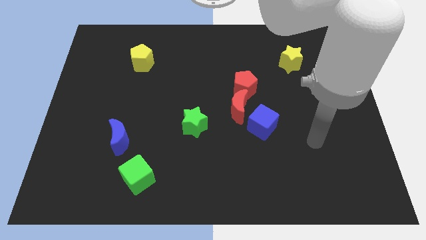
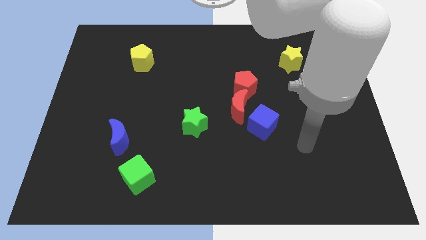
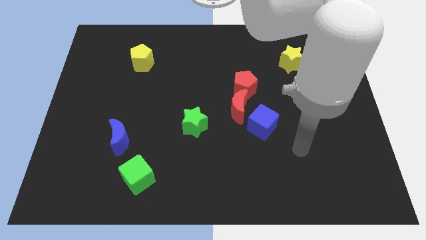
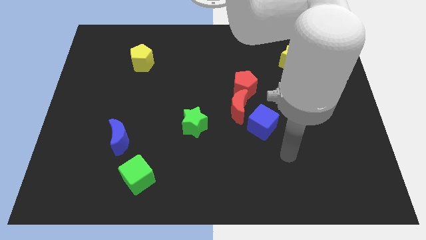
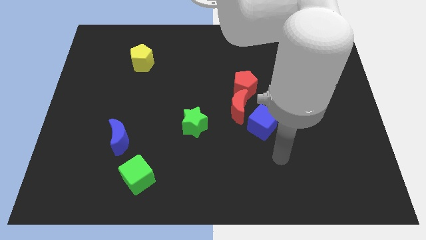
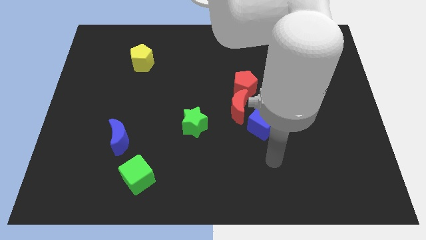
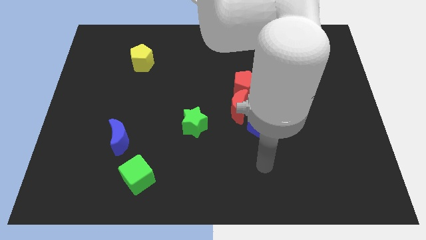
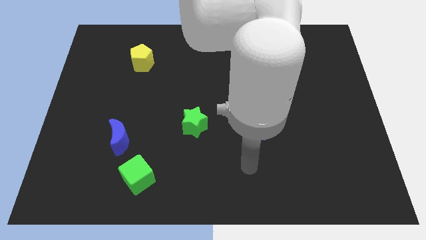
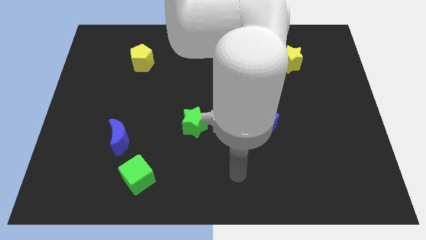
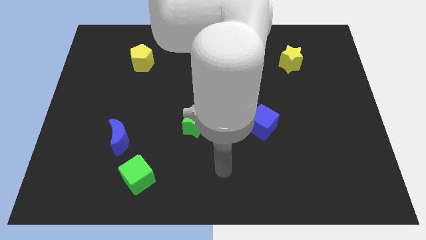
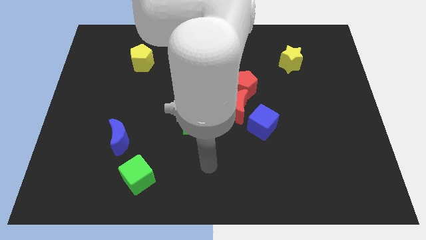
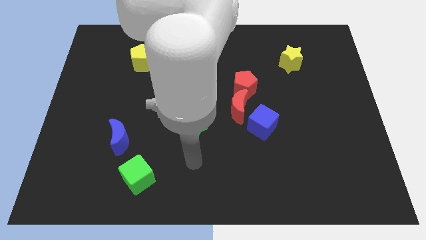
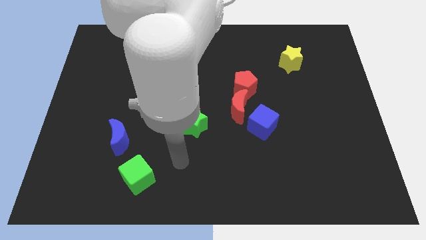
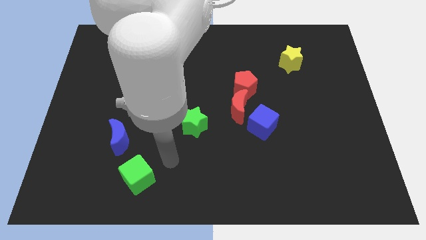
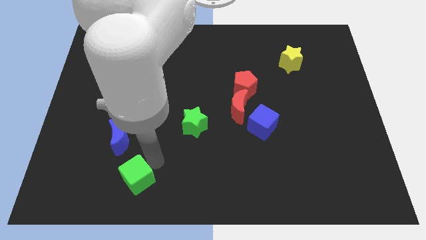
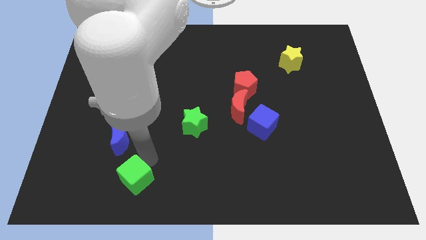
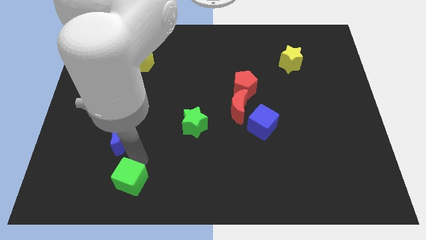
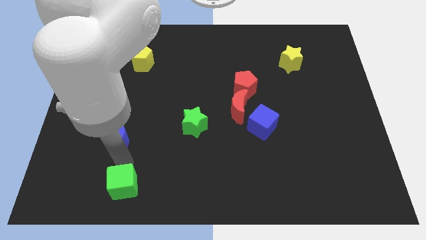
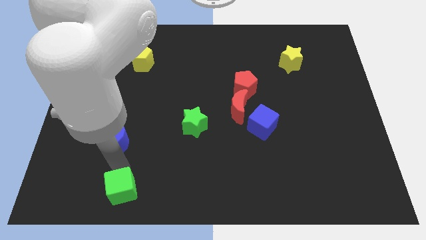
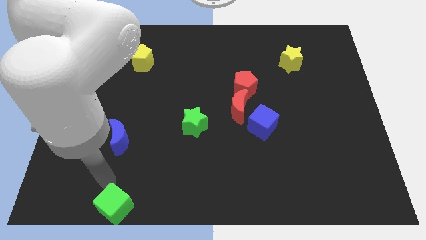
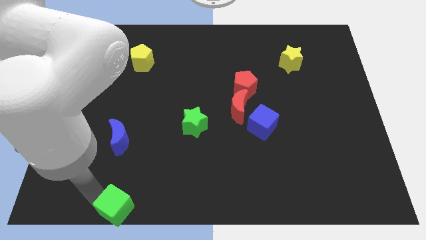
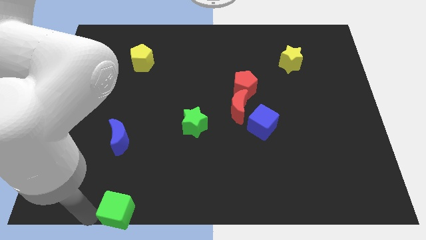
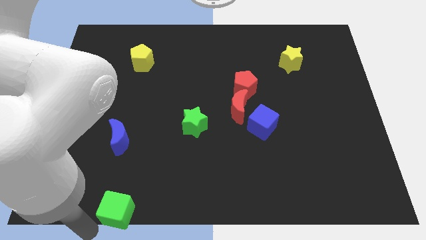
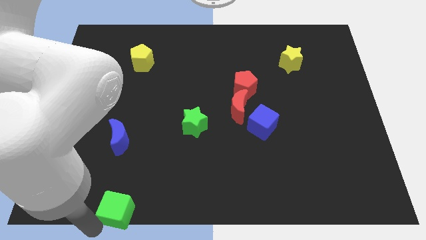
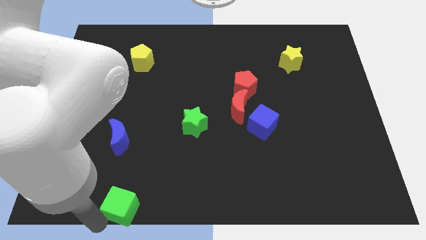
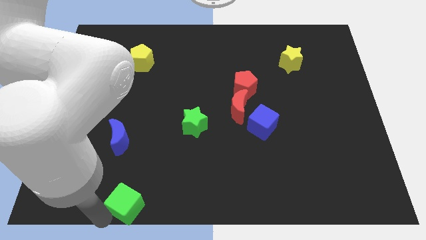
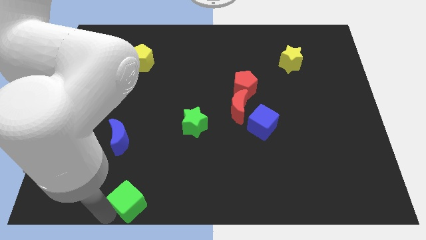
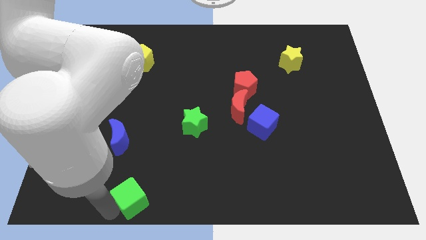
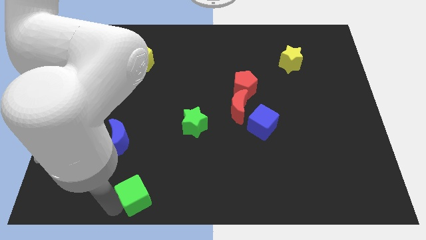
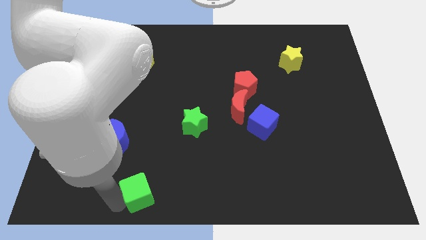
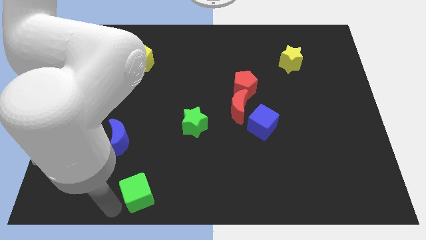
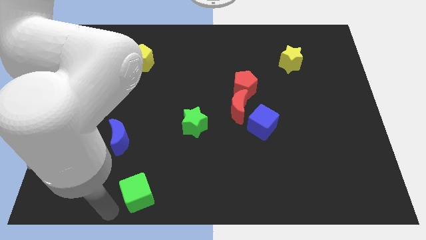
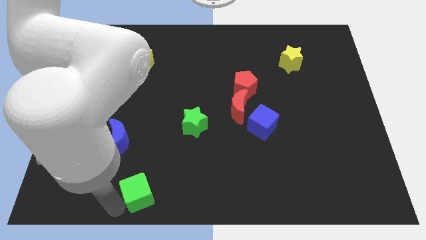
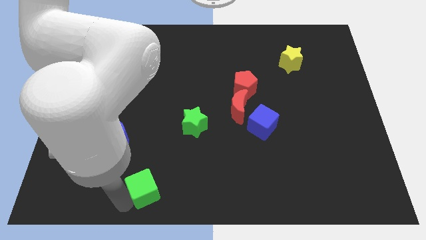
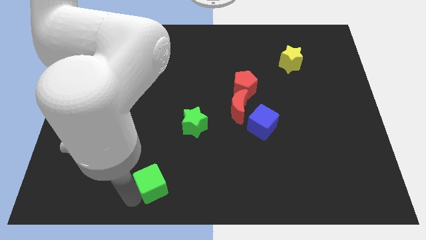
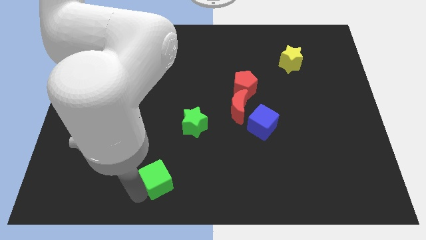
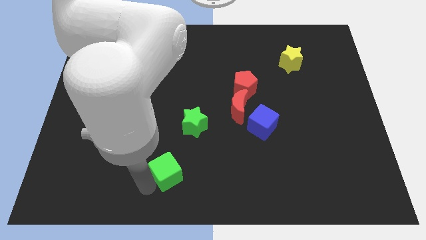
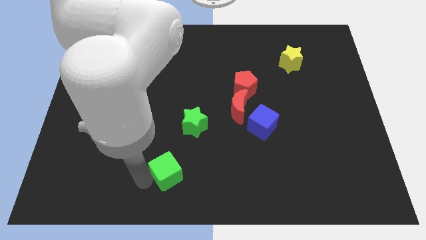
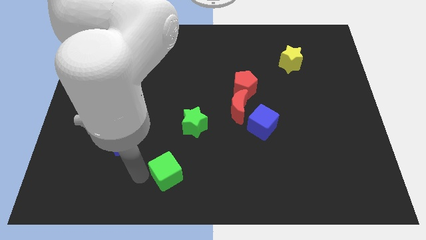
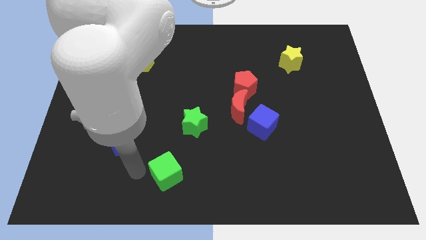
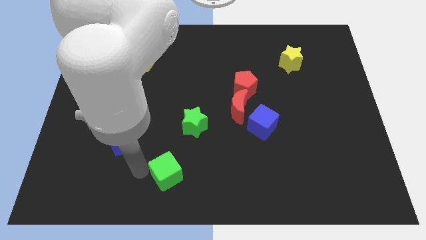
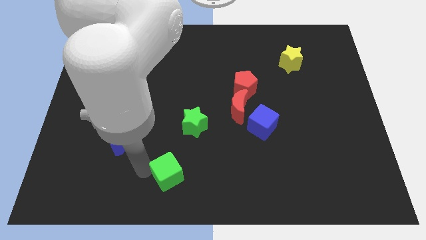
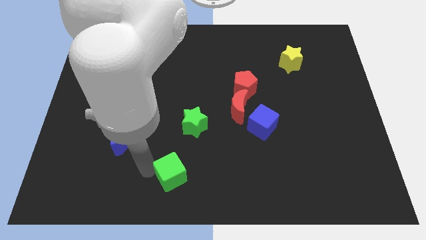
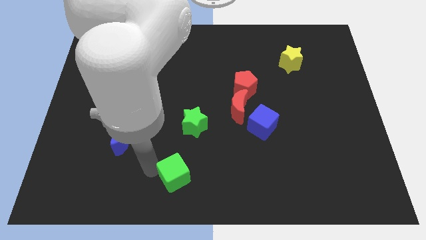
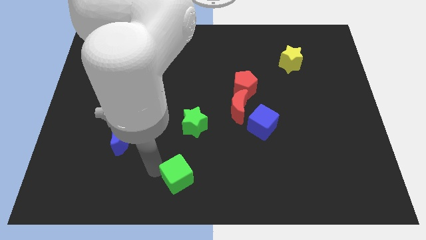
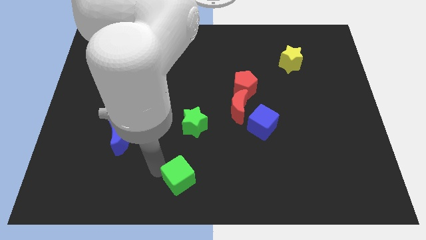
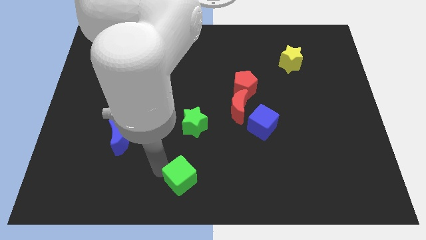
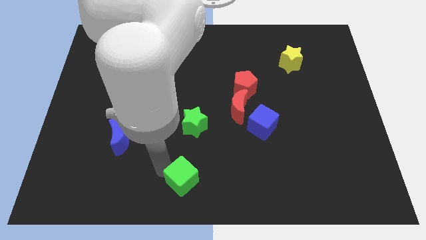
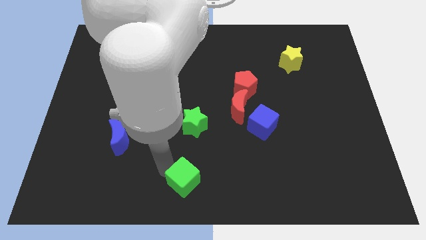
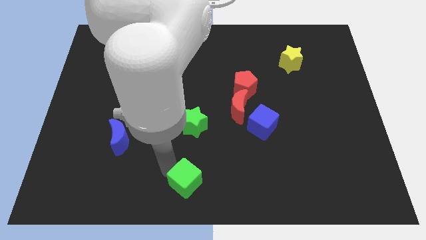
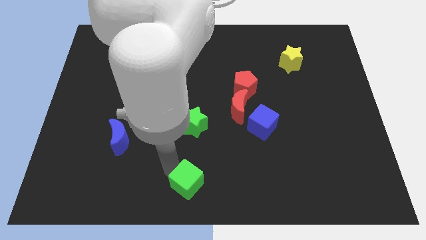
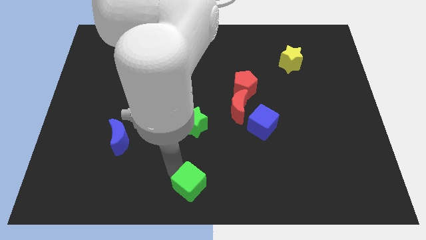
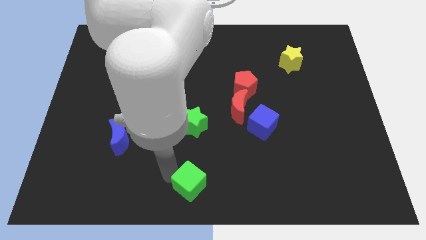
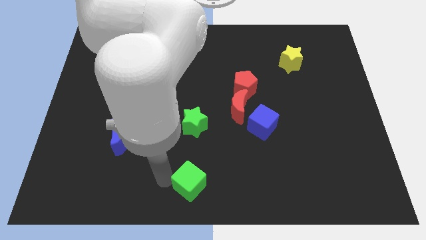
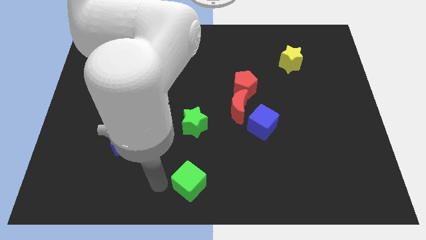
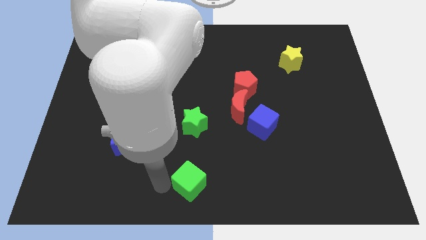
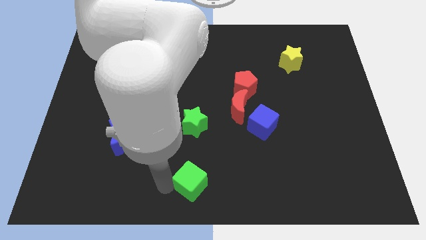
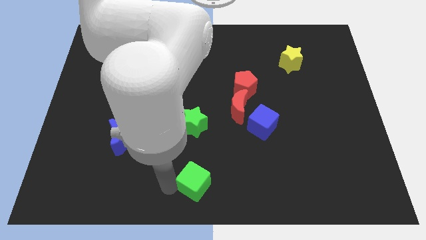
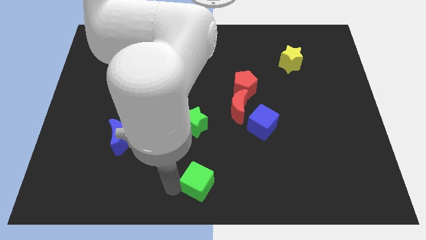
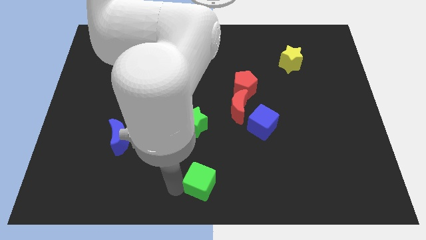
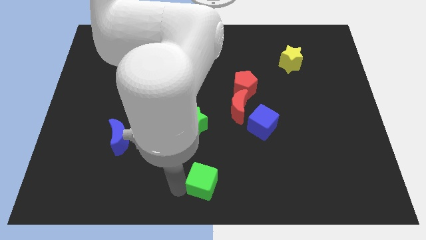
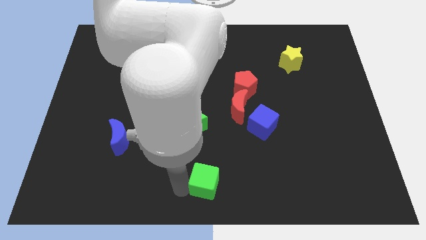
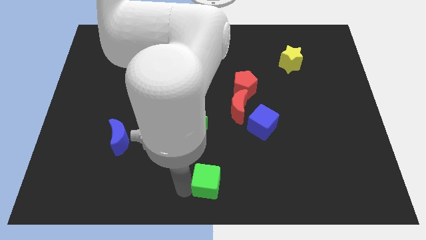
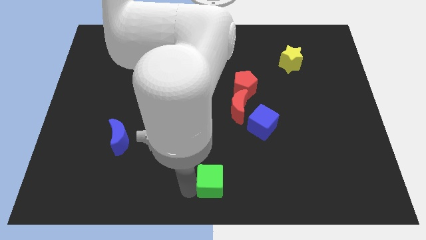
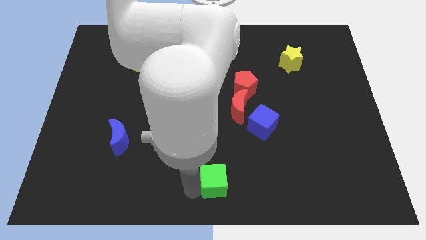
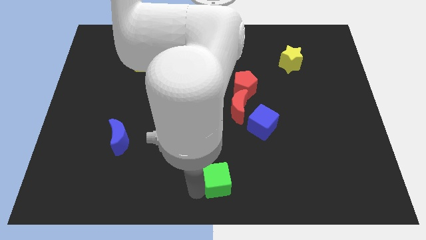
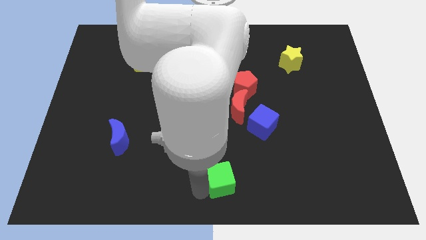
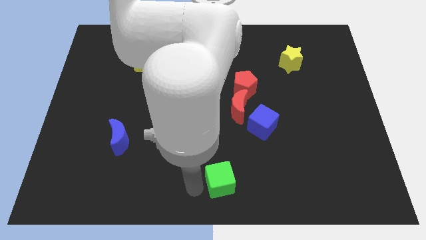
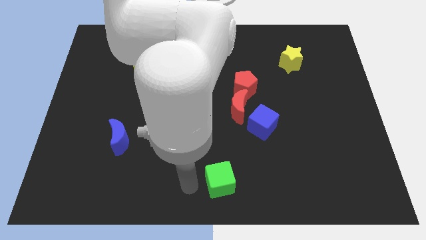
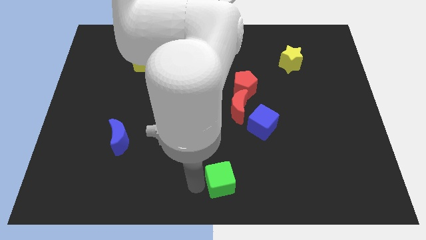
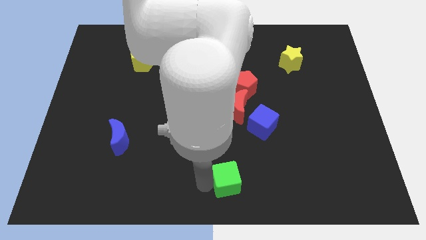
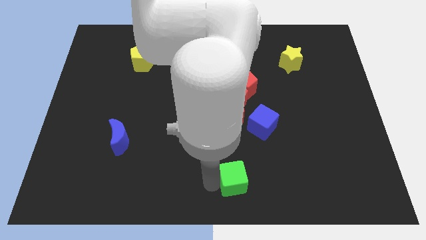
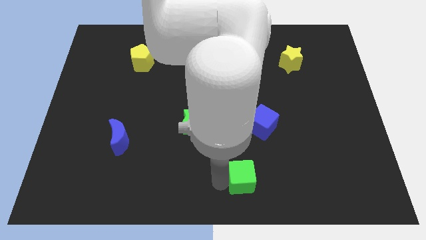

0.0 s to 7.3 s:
push the green cube right

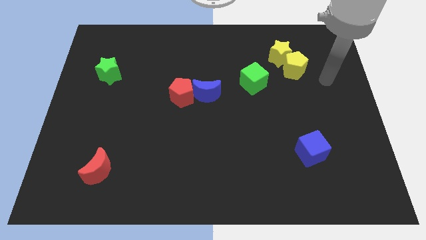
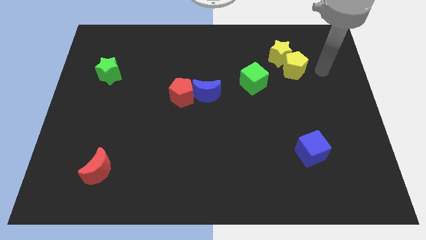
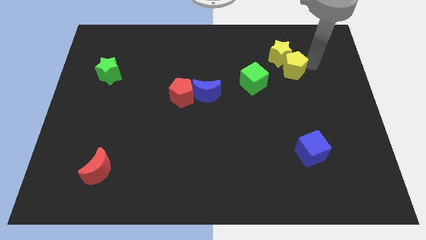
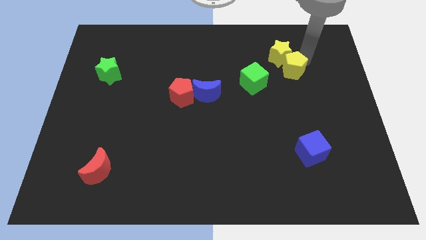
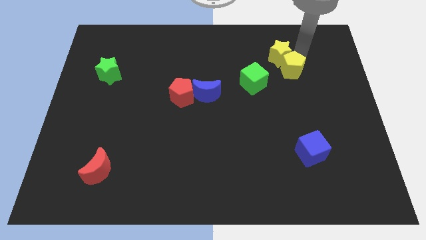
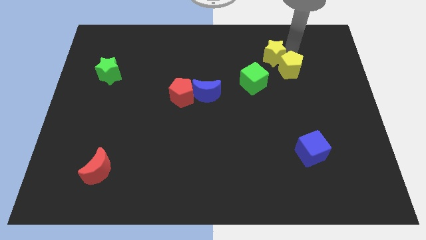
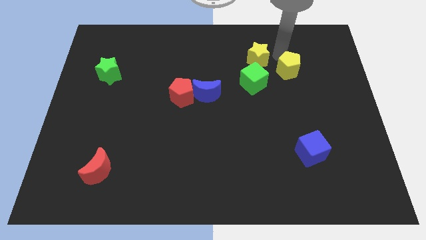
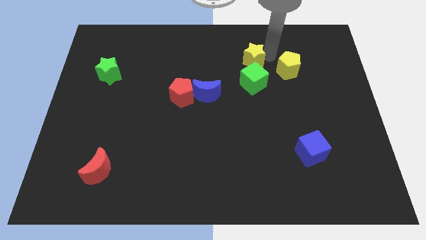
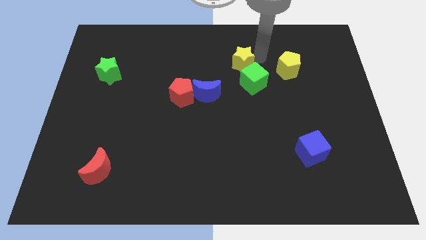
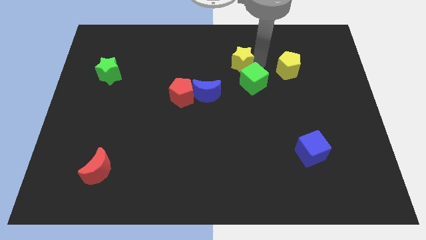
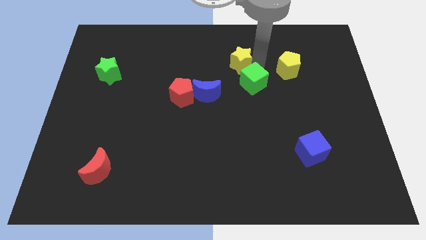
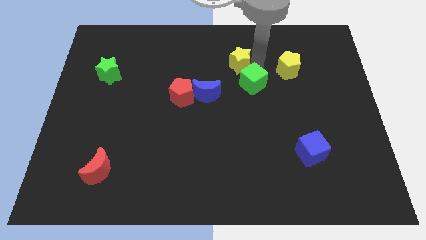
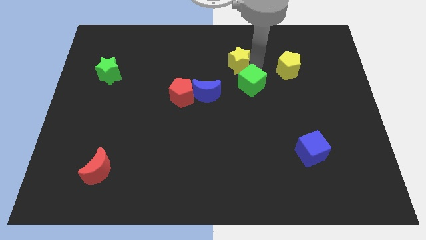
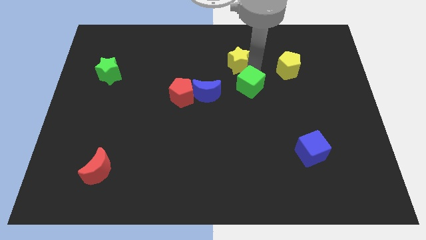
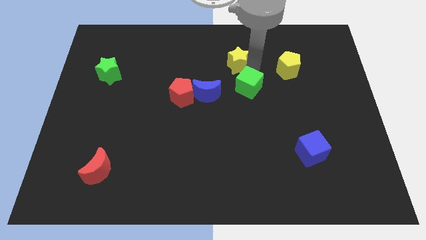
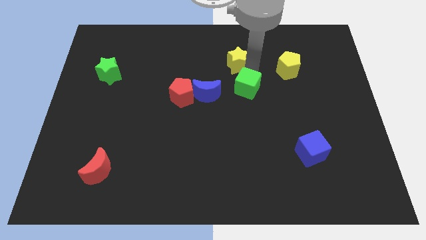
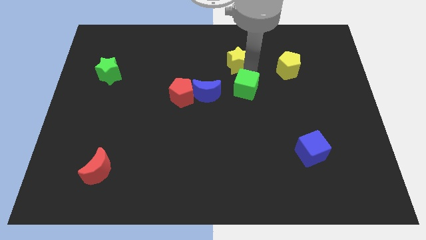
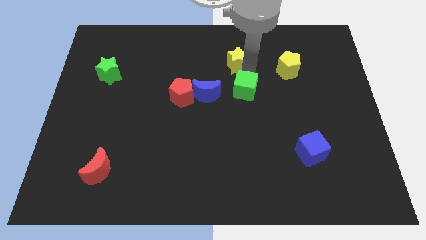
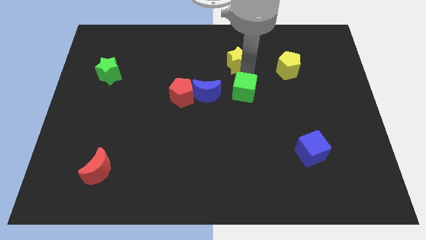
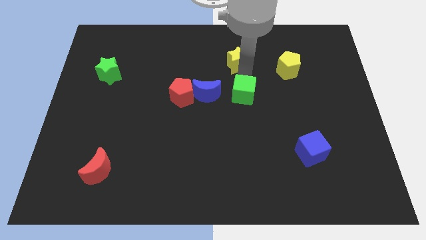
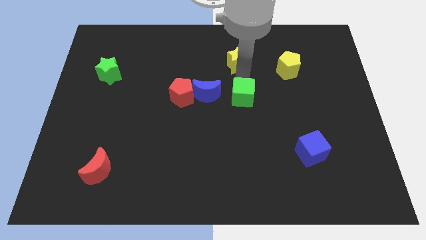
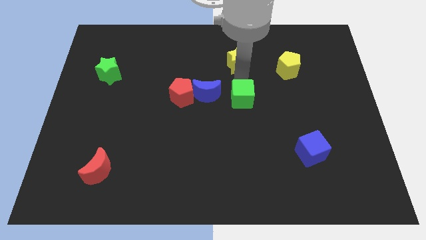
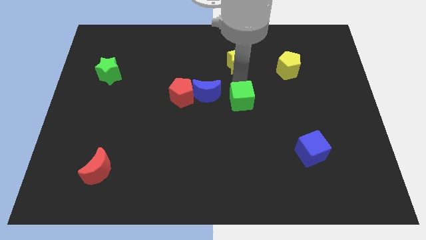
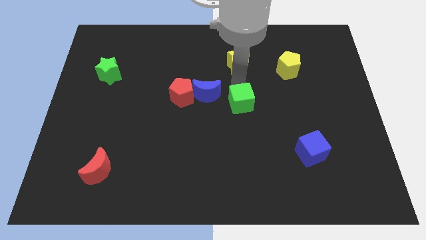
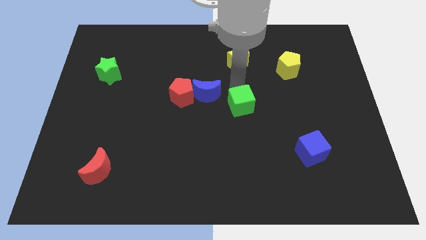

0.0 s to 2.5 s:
slide the green cube slightly down
